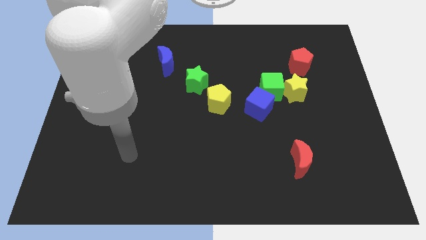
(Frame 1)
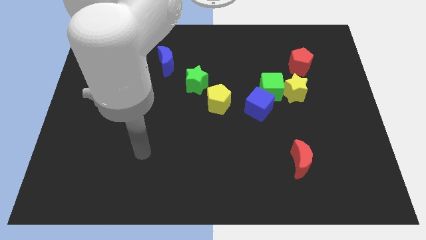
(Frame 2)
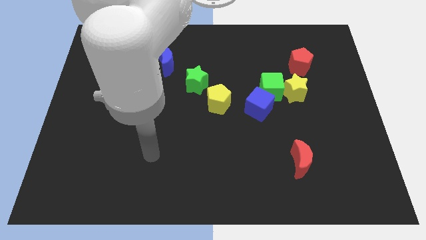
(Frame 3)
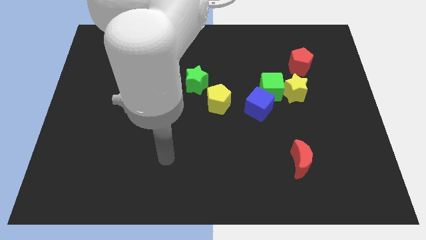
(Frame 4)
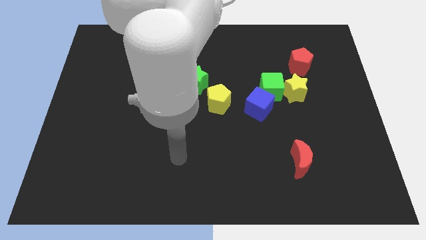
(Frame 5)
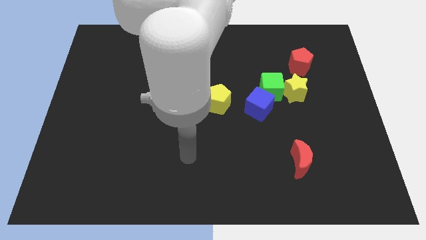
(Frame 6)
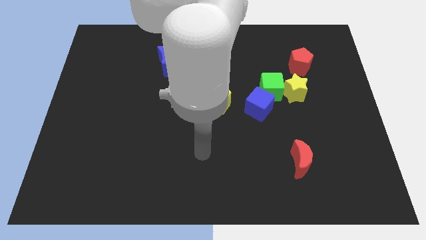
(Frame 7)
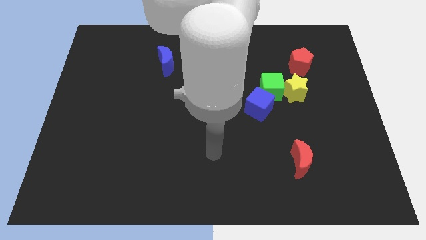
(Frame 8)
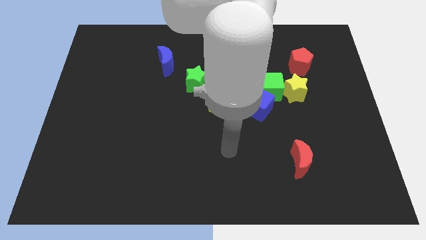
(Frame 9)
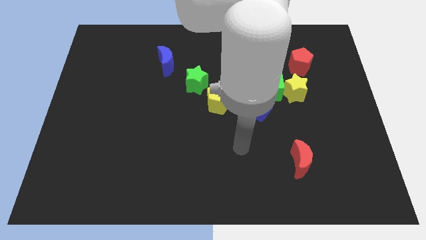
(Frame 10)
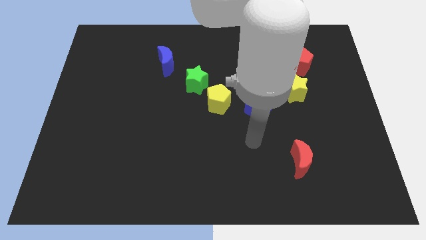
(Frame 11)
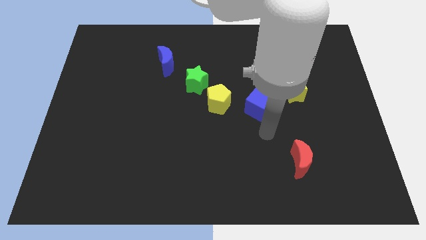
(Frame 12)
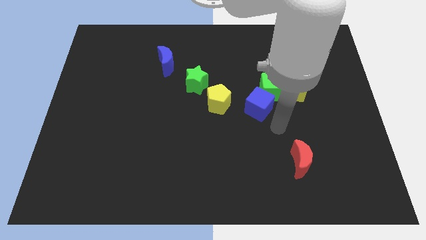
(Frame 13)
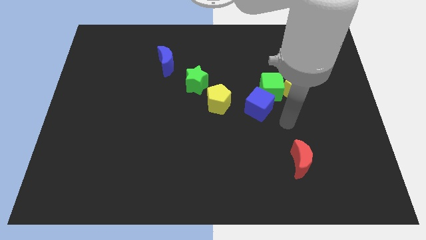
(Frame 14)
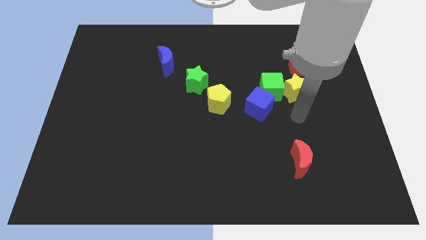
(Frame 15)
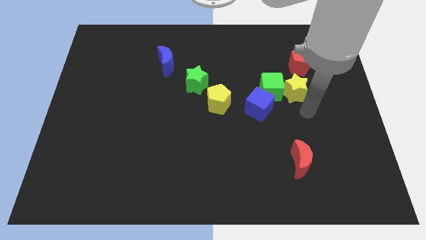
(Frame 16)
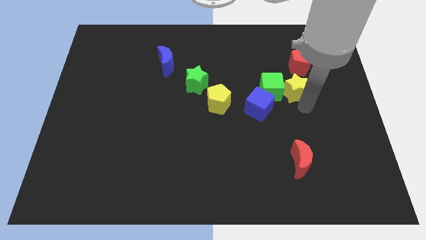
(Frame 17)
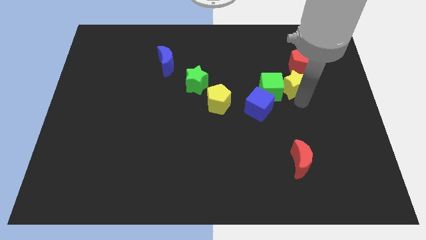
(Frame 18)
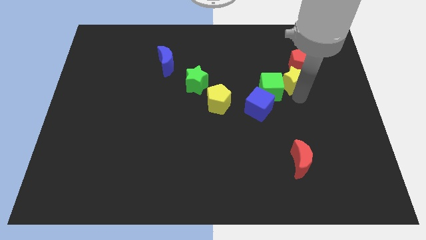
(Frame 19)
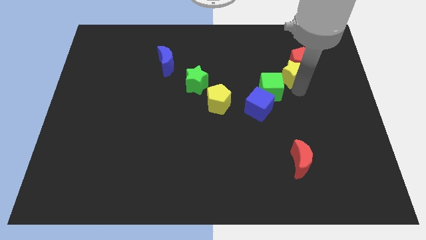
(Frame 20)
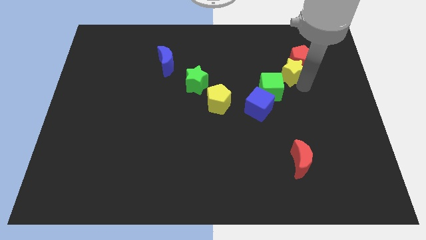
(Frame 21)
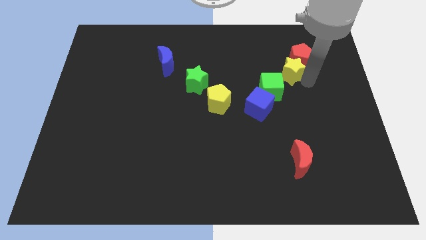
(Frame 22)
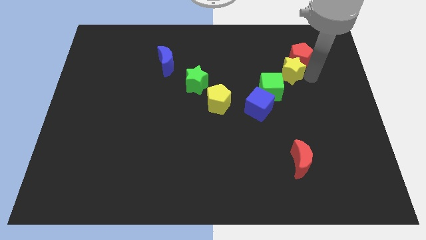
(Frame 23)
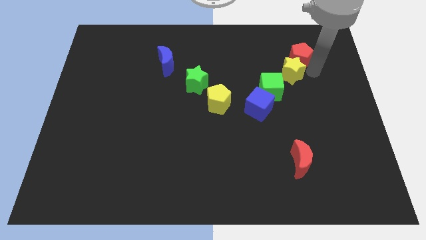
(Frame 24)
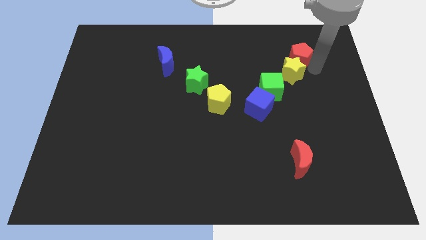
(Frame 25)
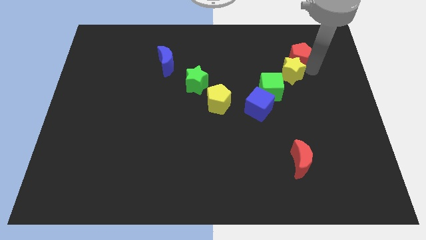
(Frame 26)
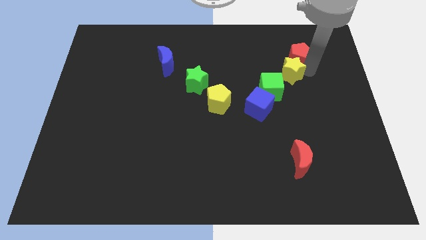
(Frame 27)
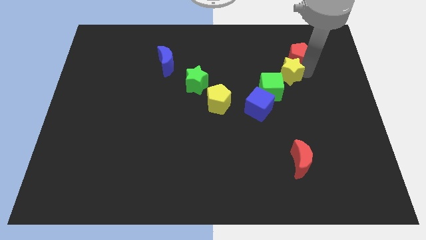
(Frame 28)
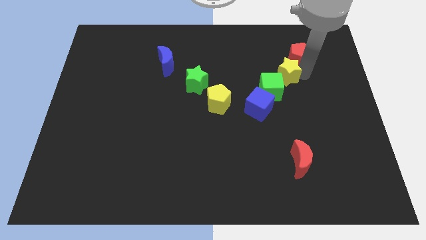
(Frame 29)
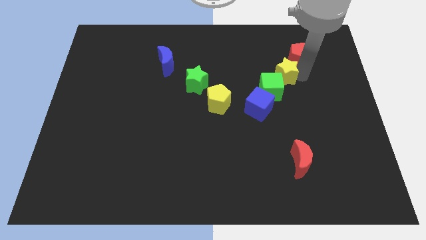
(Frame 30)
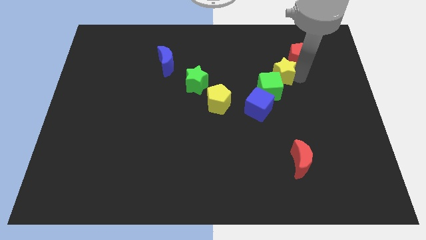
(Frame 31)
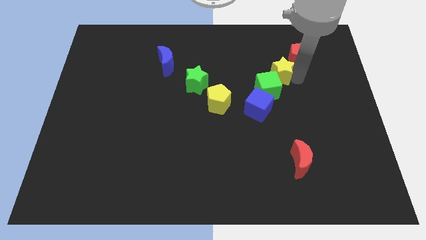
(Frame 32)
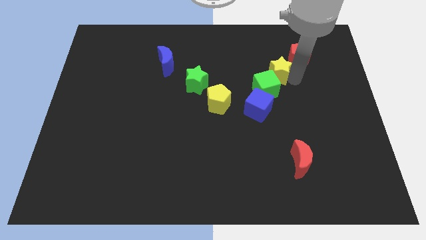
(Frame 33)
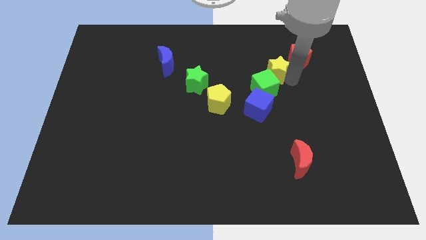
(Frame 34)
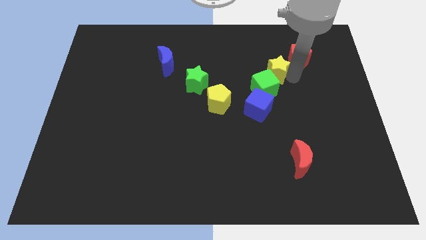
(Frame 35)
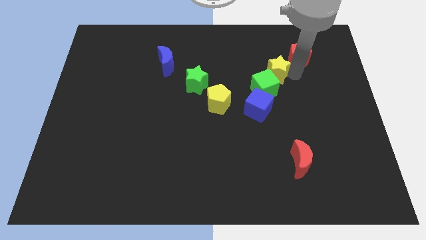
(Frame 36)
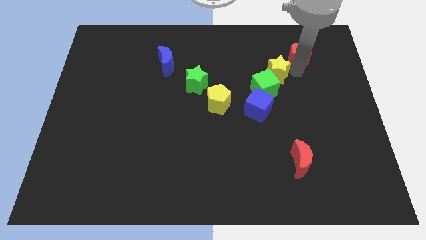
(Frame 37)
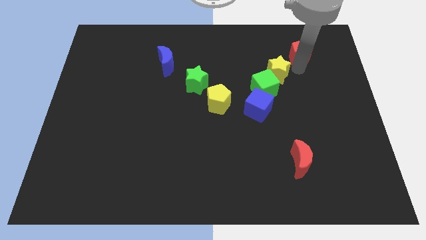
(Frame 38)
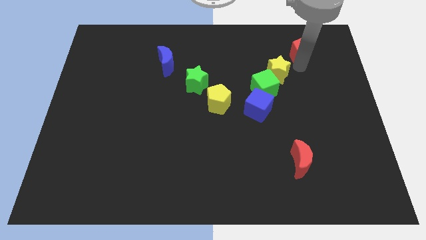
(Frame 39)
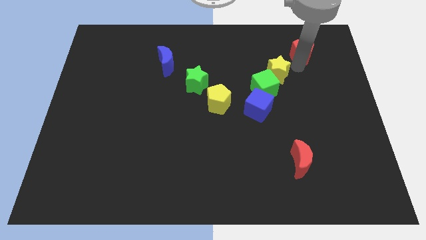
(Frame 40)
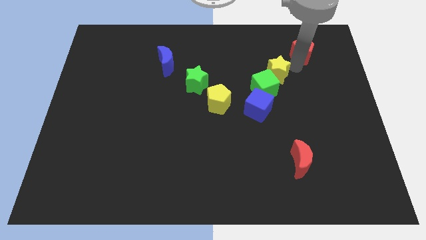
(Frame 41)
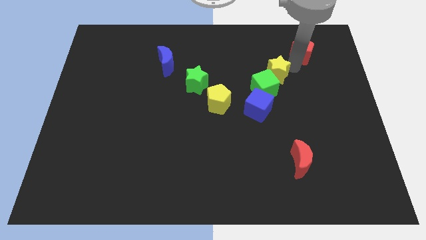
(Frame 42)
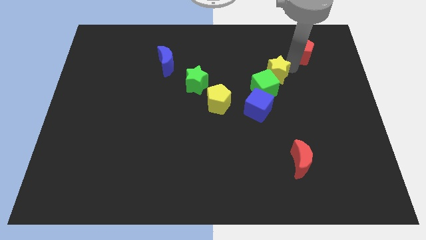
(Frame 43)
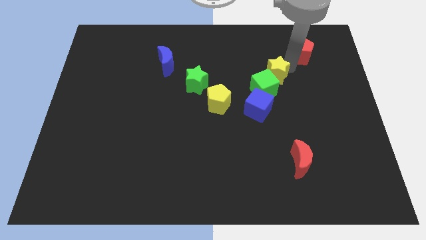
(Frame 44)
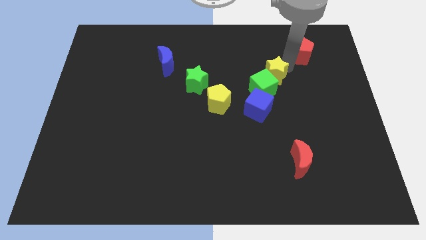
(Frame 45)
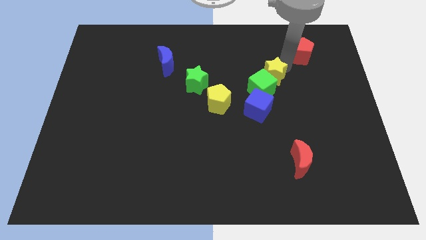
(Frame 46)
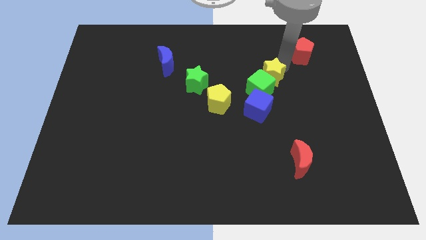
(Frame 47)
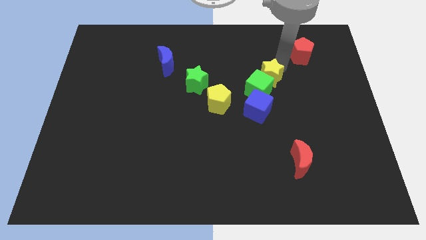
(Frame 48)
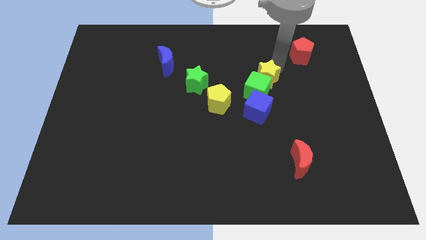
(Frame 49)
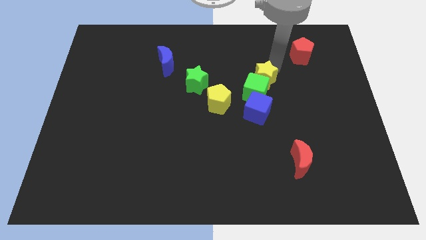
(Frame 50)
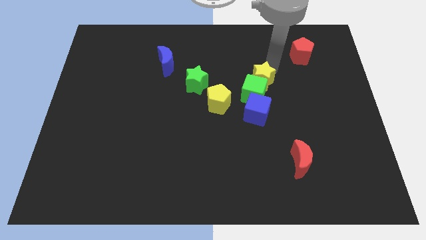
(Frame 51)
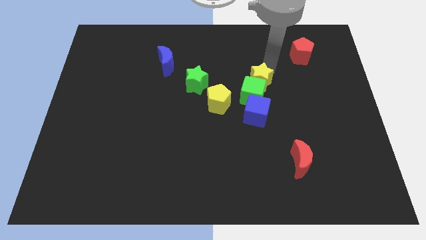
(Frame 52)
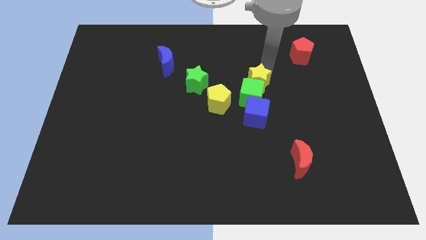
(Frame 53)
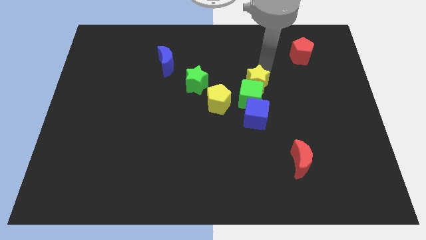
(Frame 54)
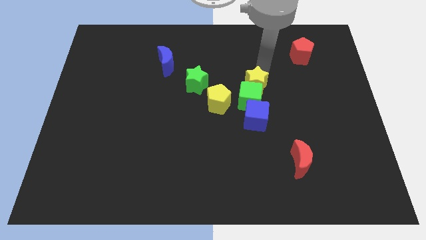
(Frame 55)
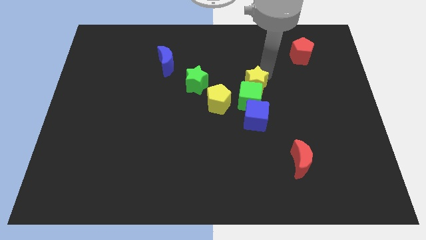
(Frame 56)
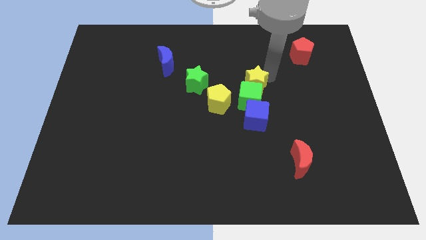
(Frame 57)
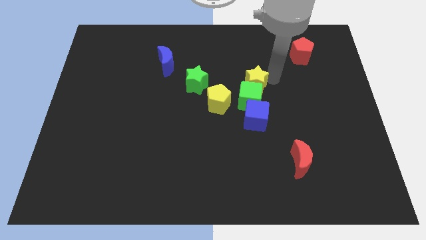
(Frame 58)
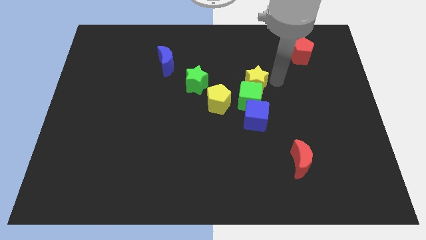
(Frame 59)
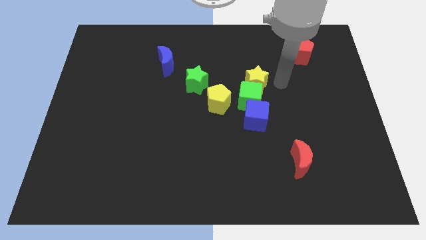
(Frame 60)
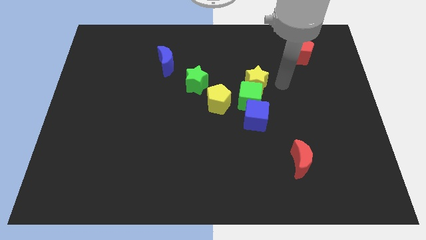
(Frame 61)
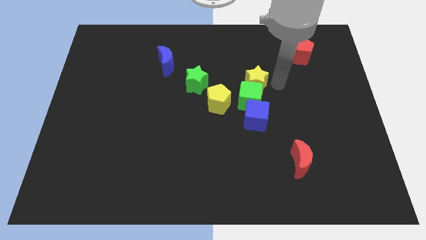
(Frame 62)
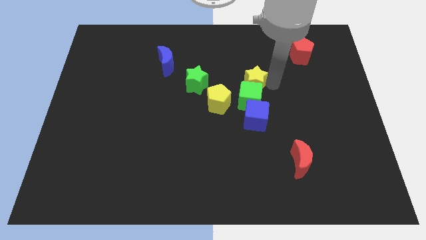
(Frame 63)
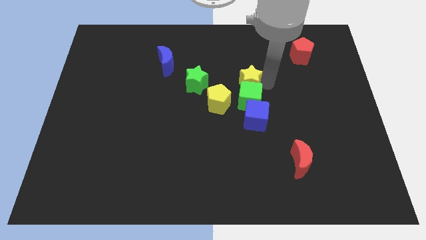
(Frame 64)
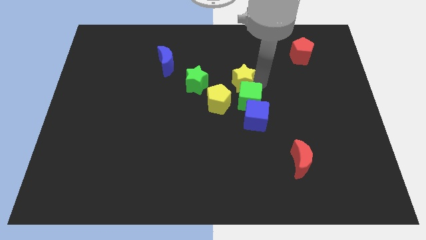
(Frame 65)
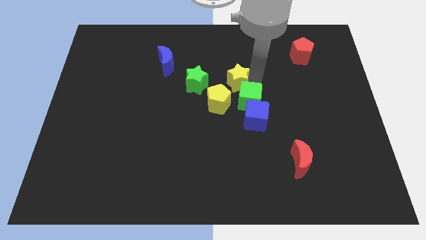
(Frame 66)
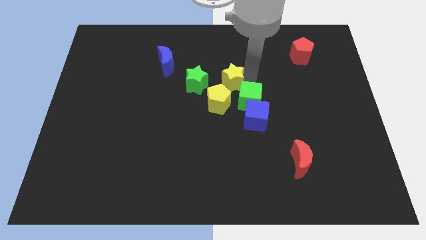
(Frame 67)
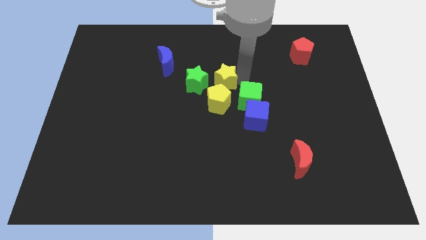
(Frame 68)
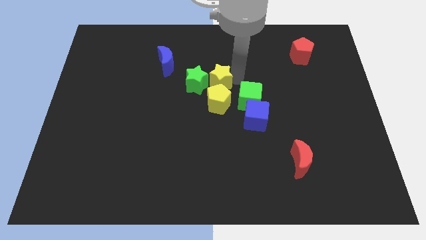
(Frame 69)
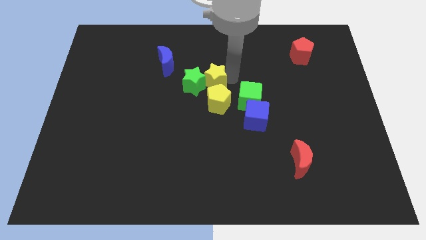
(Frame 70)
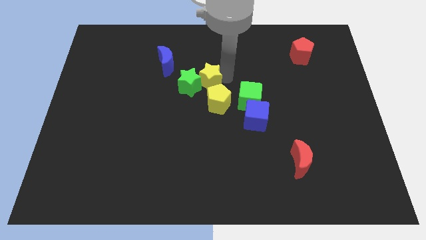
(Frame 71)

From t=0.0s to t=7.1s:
move the yellow star to the left

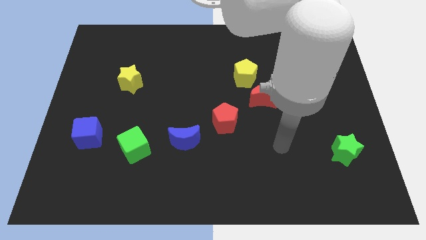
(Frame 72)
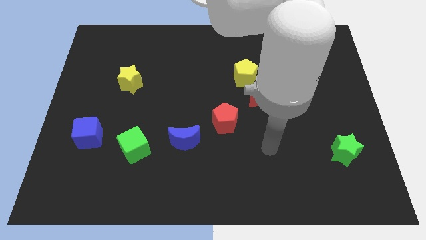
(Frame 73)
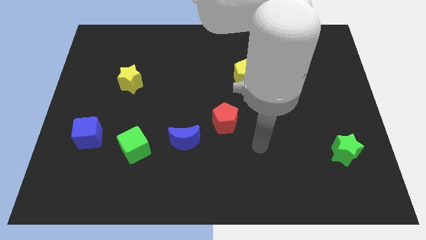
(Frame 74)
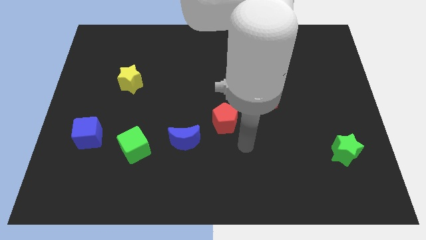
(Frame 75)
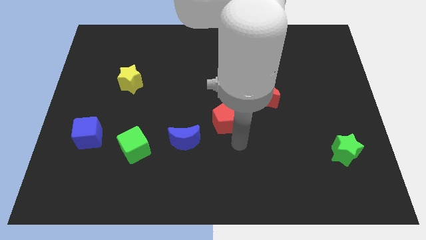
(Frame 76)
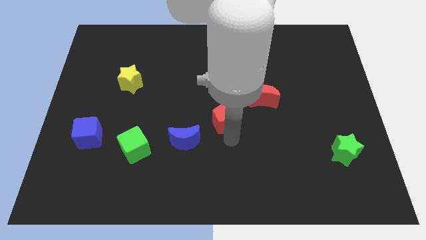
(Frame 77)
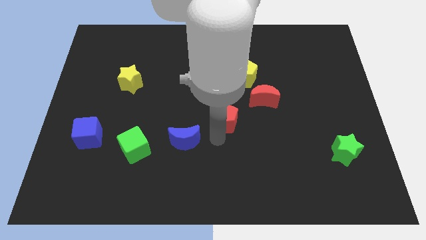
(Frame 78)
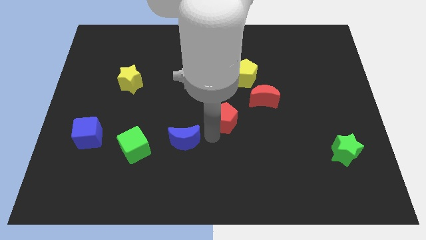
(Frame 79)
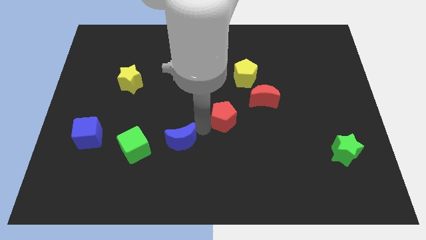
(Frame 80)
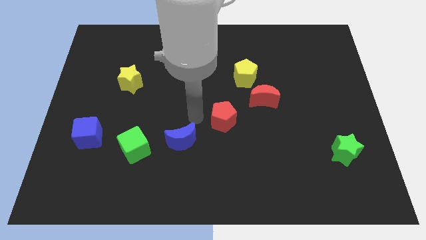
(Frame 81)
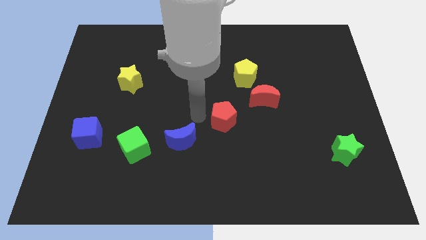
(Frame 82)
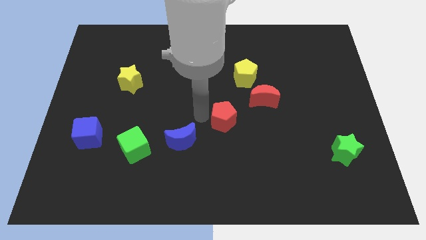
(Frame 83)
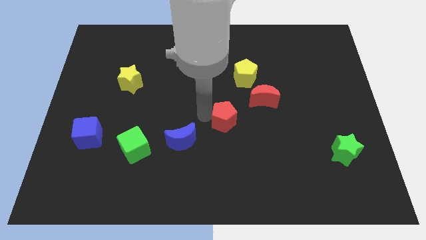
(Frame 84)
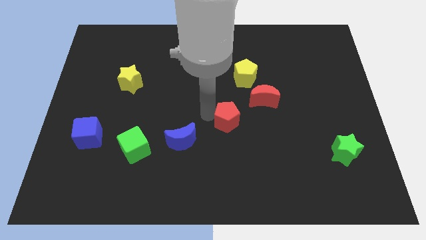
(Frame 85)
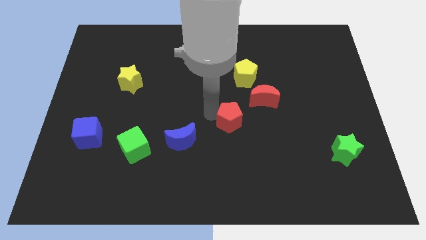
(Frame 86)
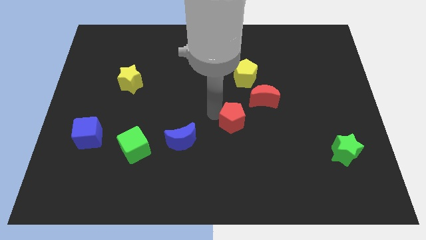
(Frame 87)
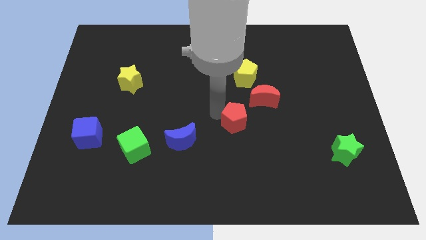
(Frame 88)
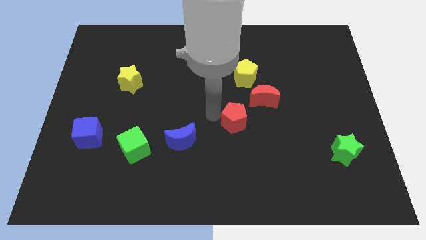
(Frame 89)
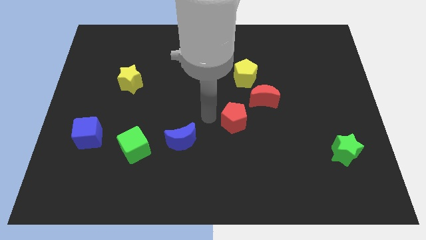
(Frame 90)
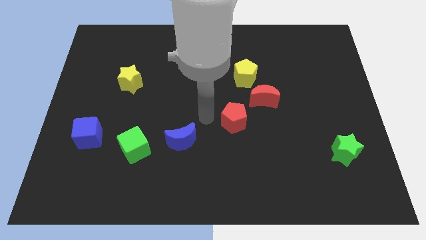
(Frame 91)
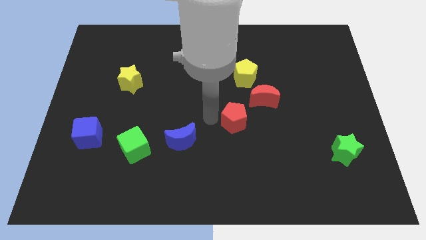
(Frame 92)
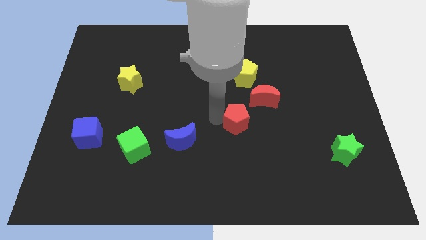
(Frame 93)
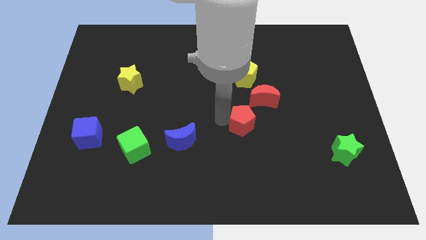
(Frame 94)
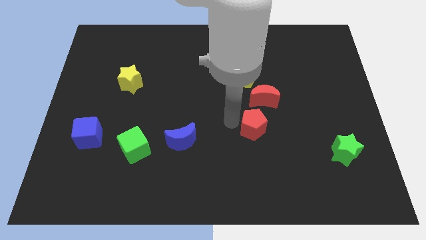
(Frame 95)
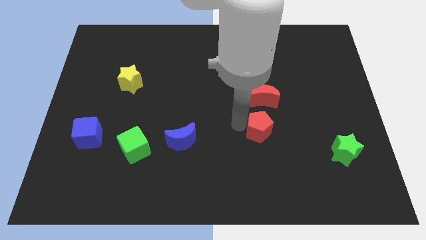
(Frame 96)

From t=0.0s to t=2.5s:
move the red pentagon to the right slightly
